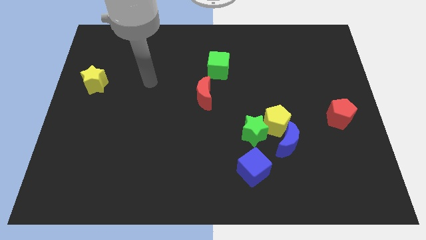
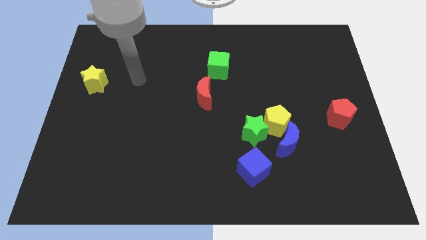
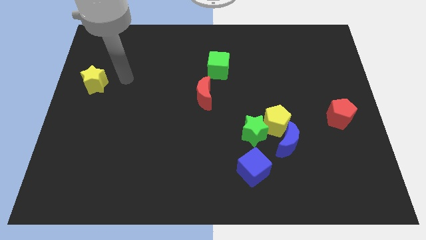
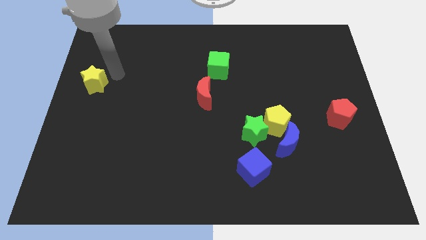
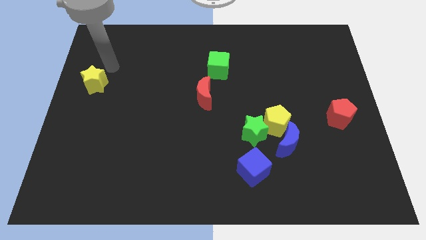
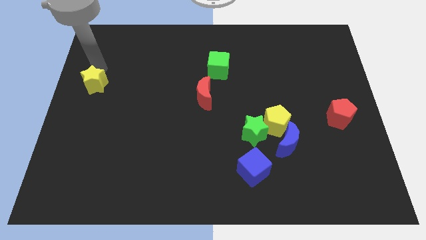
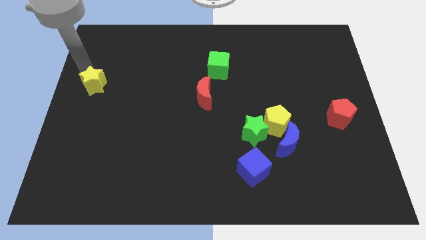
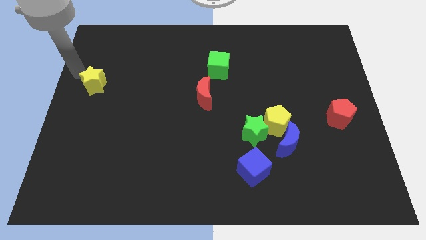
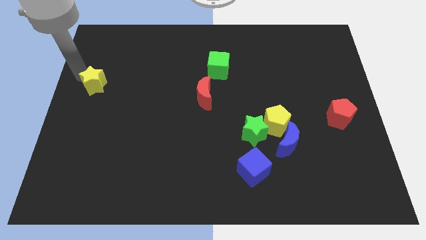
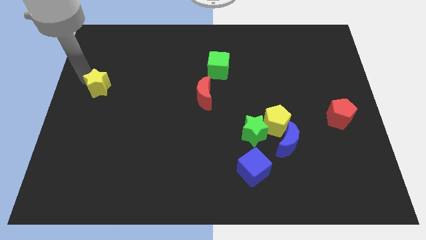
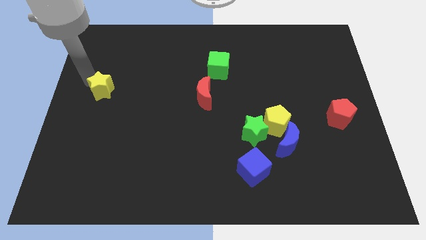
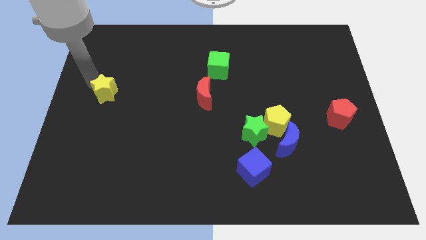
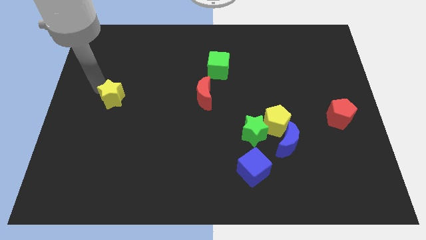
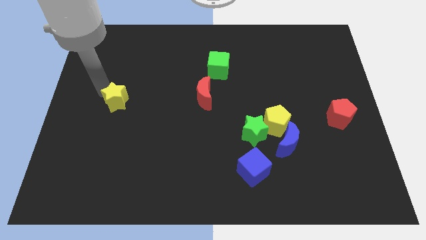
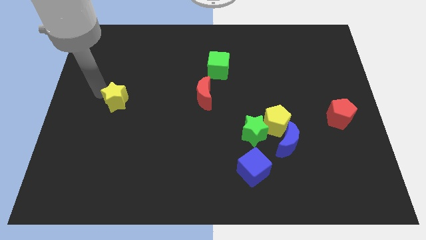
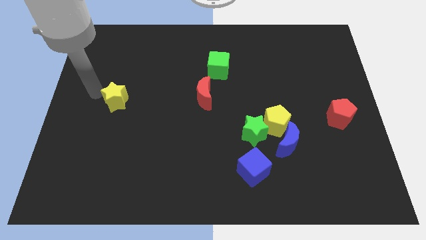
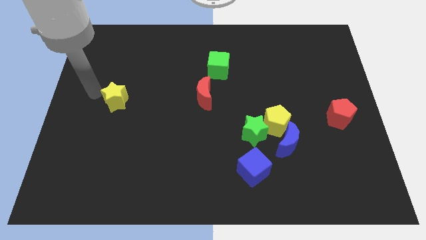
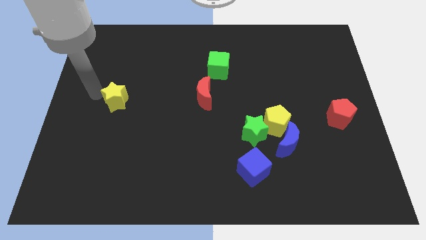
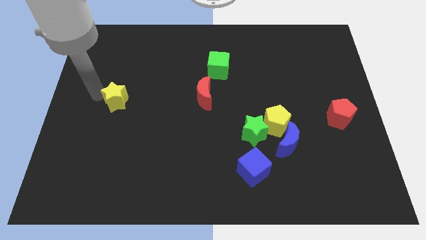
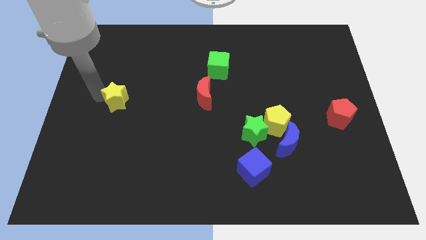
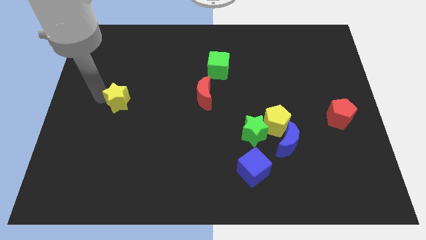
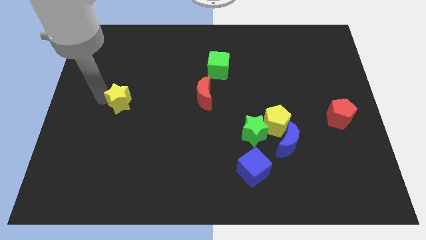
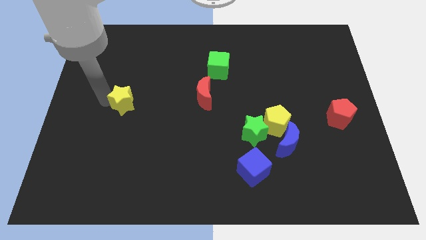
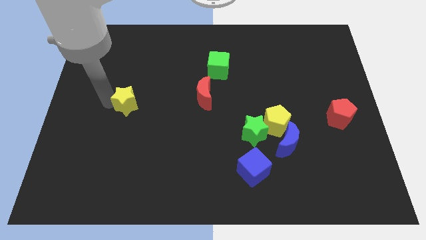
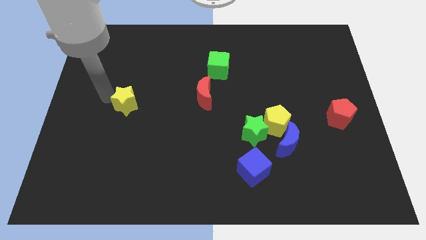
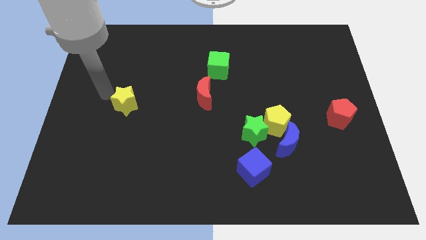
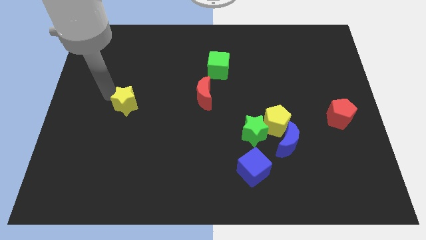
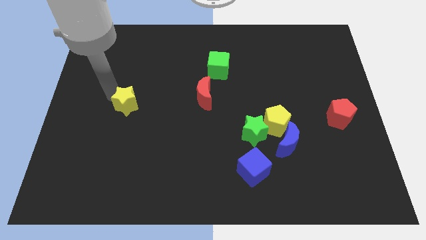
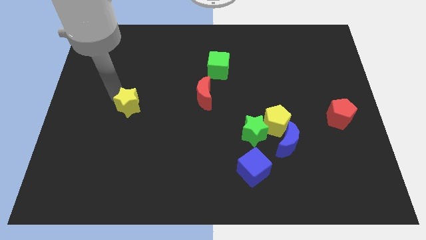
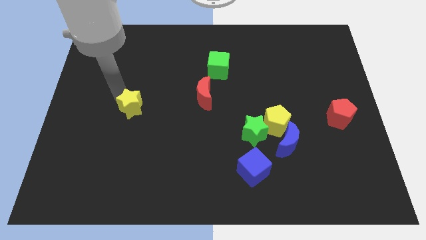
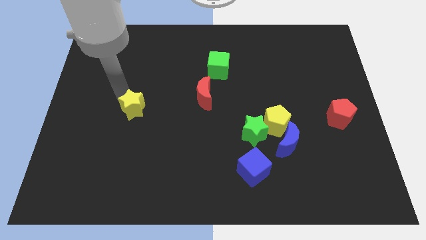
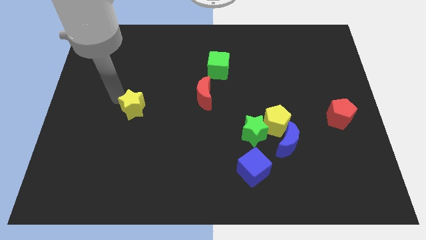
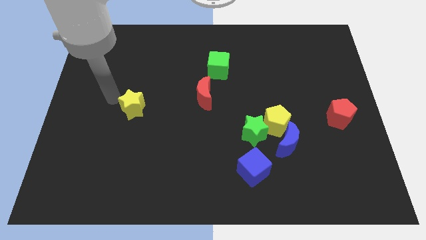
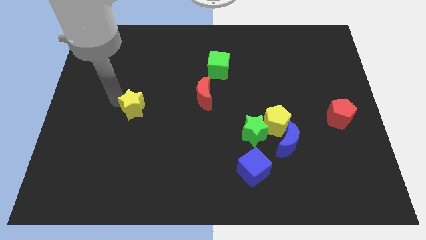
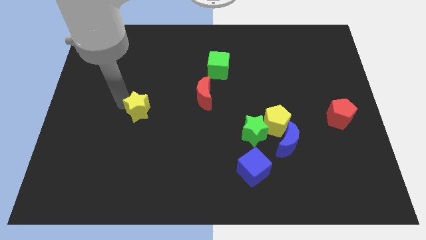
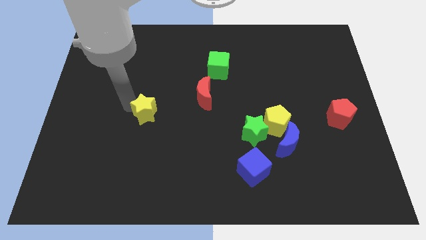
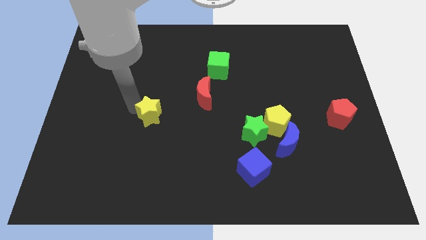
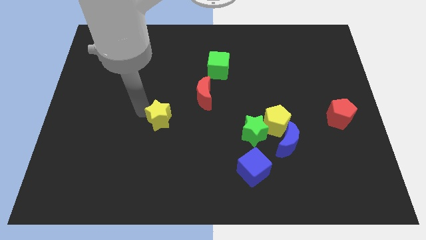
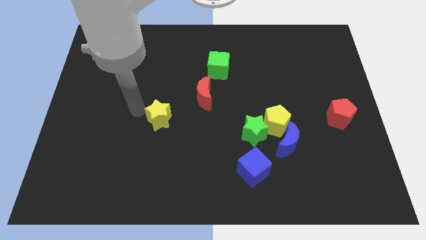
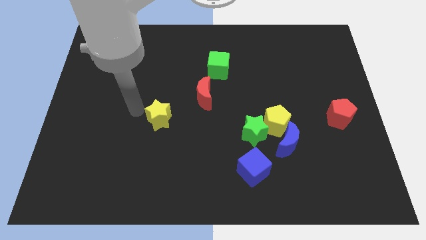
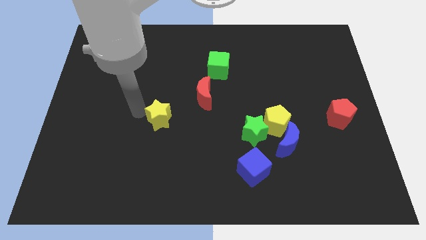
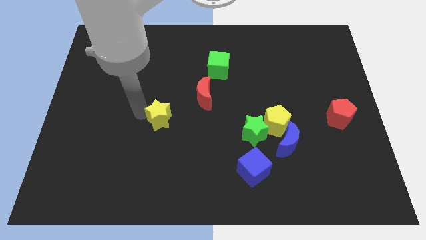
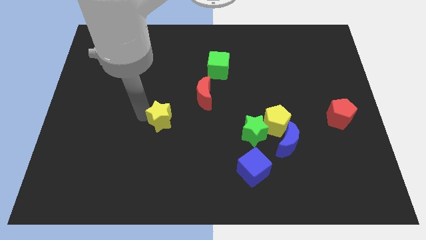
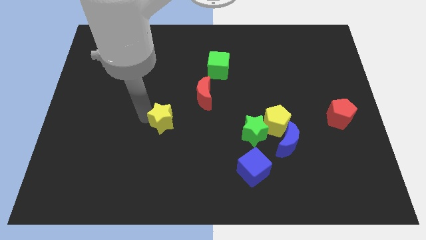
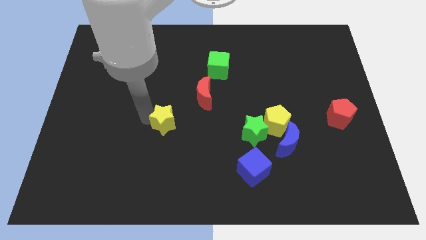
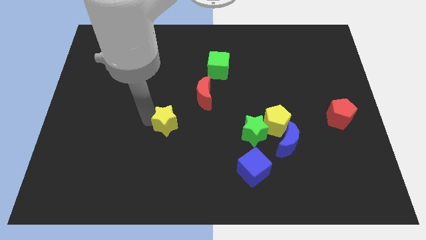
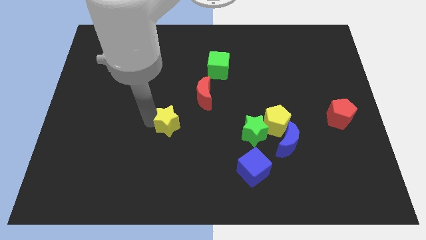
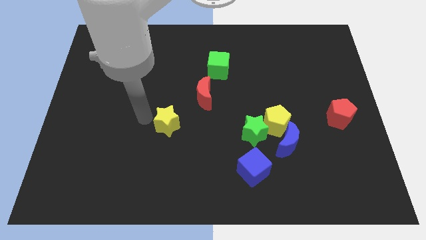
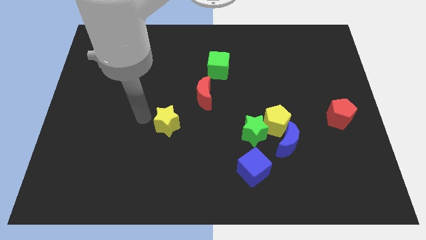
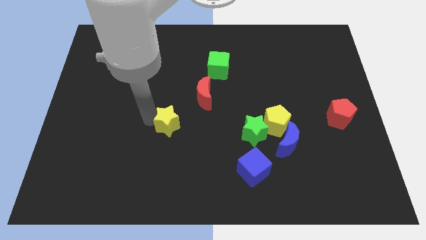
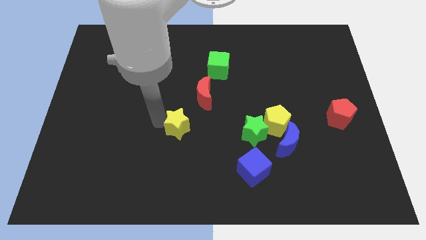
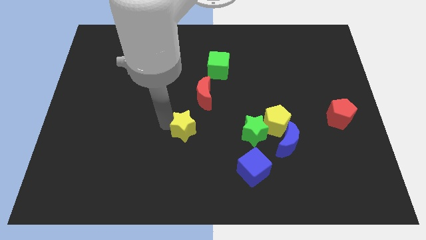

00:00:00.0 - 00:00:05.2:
slide the yellow star to the left side of the green star

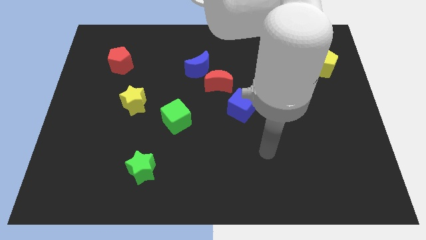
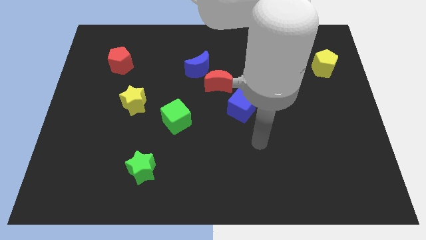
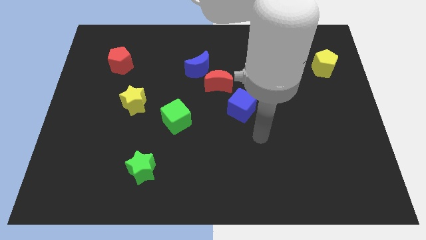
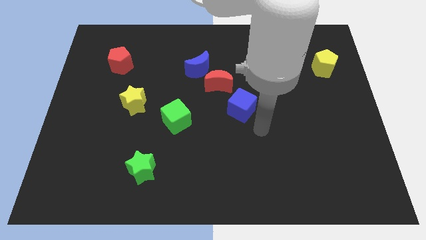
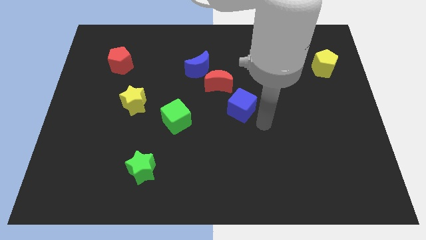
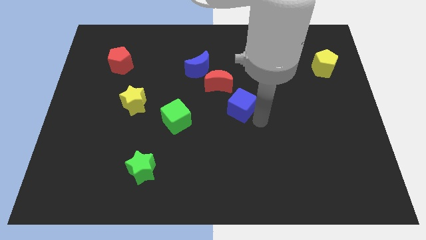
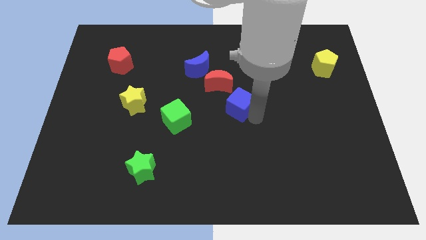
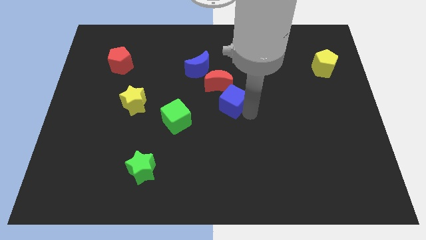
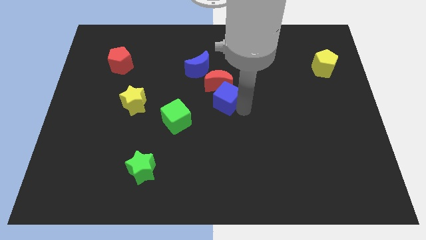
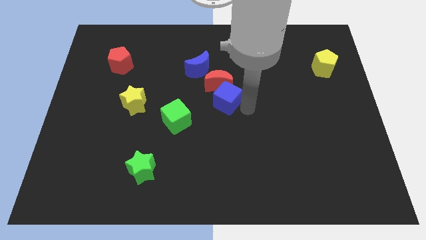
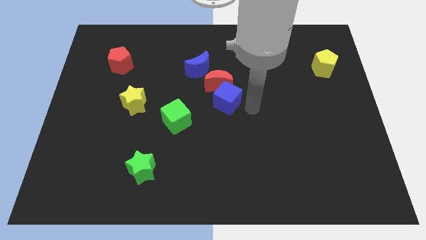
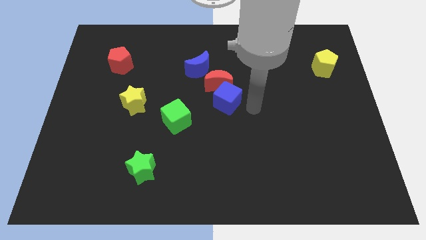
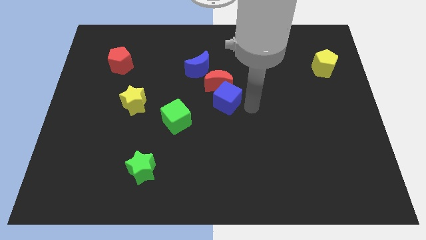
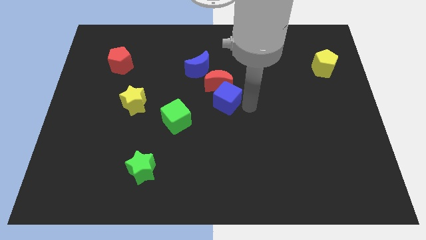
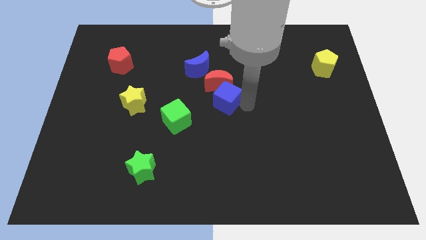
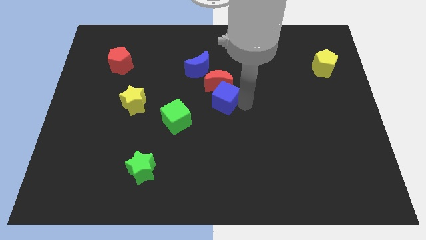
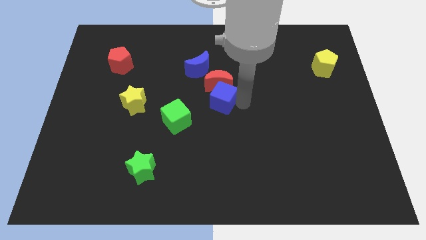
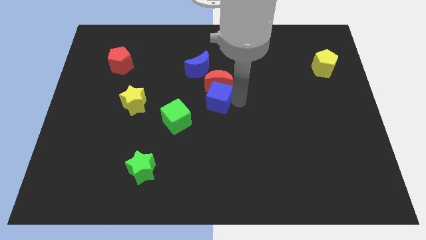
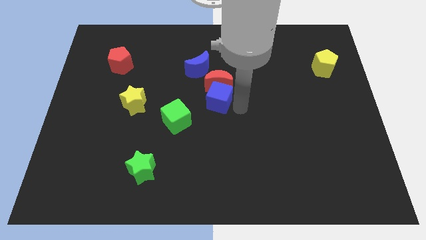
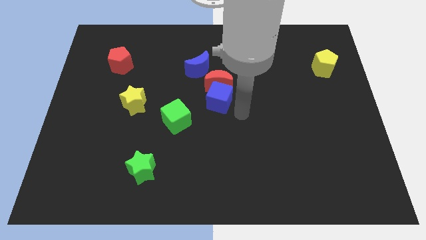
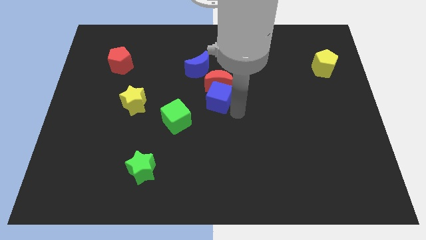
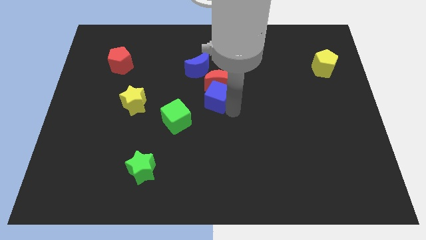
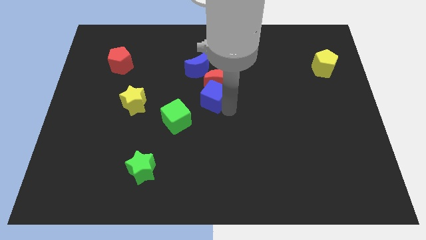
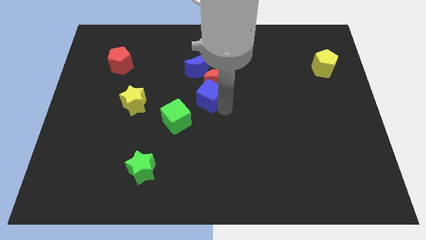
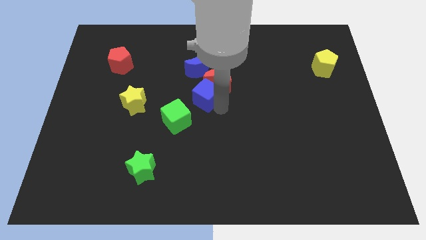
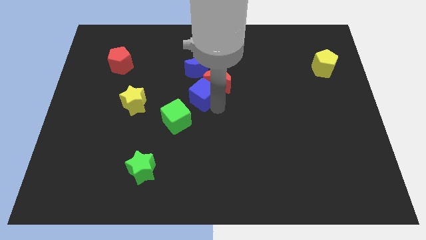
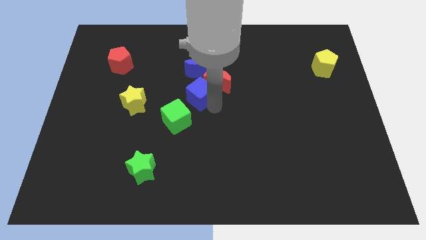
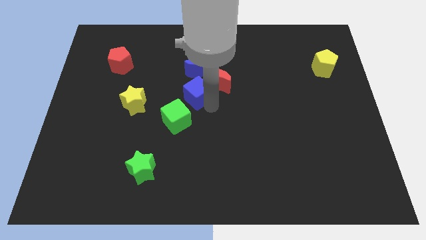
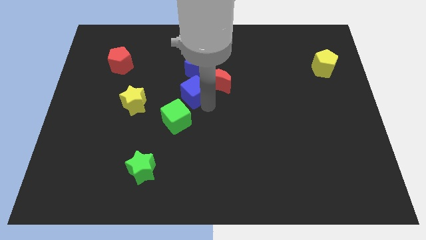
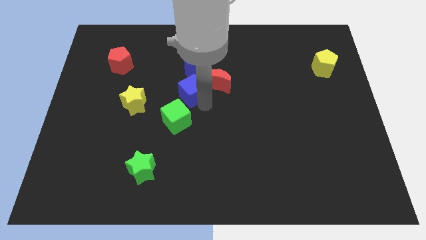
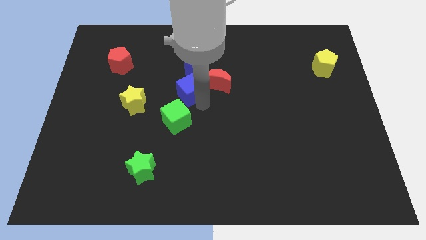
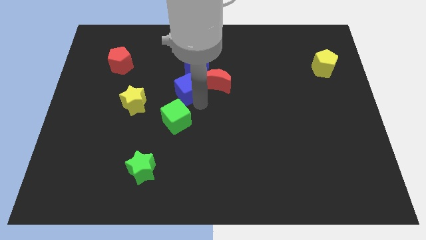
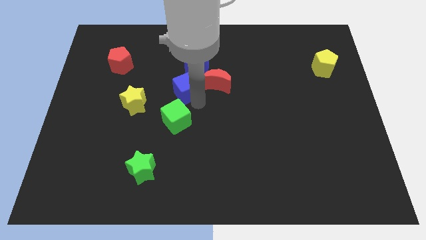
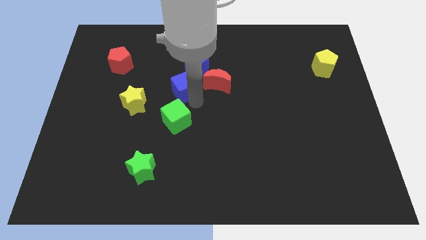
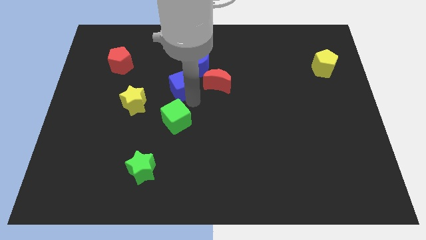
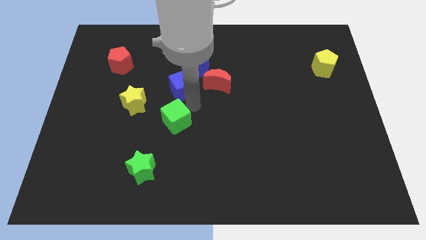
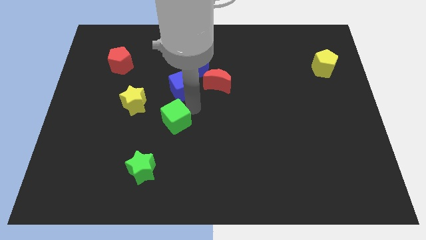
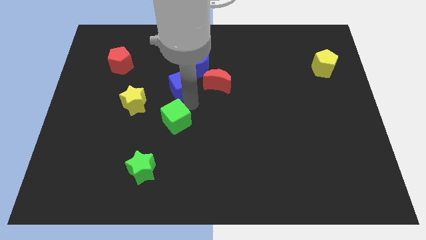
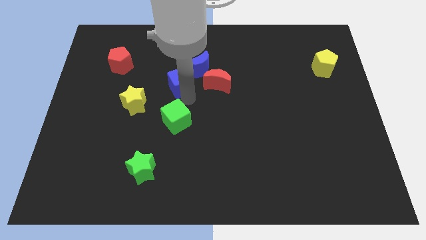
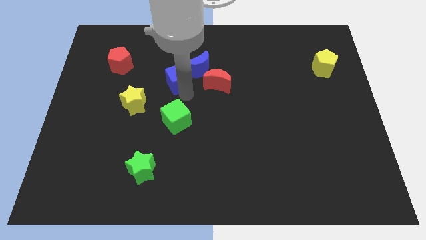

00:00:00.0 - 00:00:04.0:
put the blue cube to the left side of the blue moon
